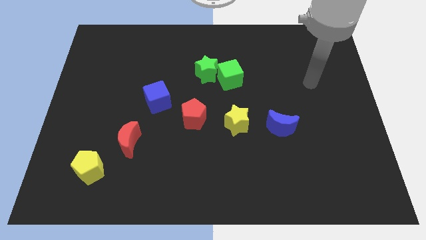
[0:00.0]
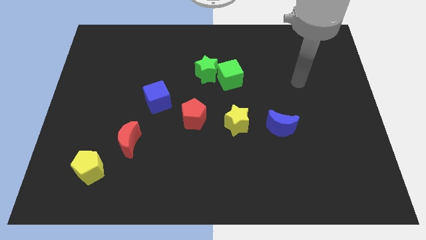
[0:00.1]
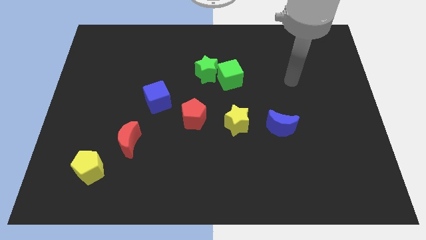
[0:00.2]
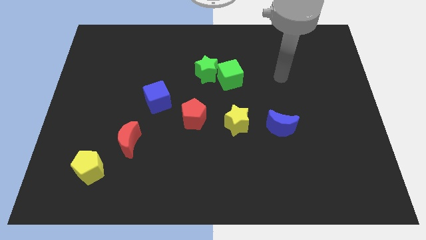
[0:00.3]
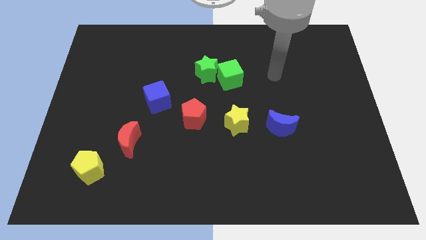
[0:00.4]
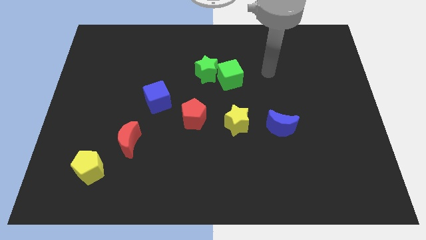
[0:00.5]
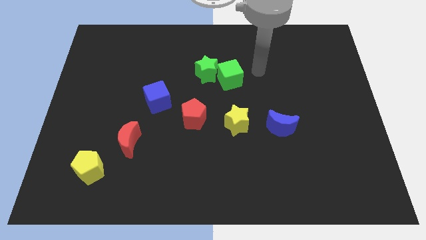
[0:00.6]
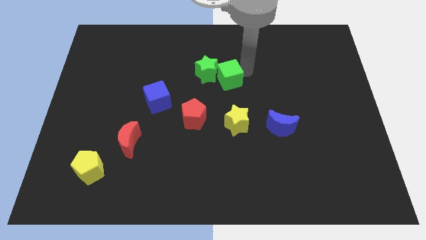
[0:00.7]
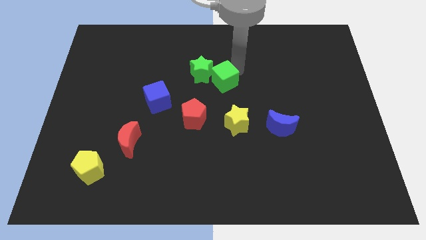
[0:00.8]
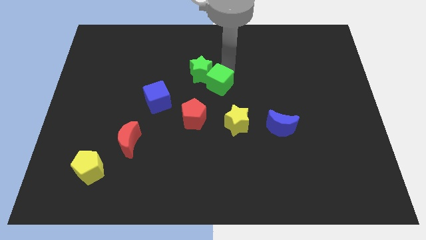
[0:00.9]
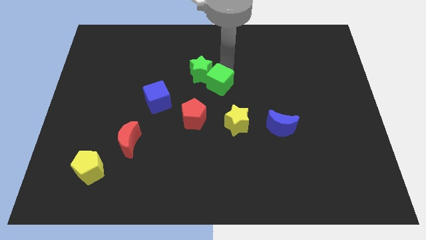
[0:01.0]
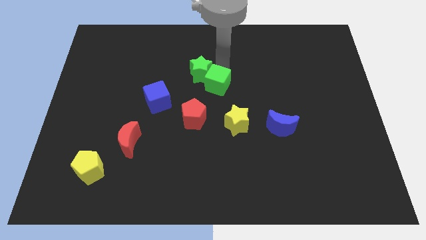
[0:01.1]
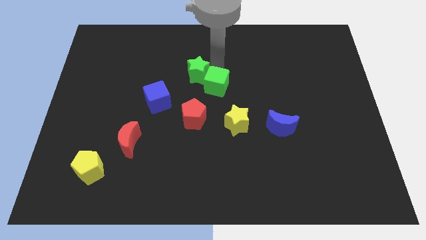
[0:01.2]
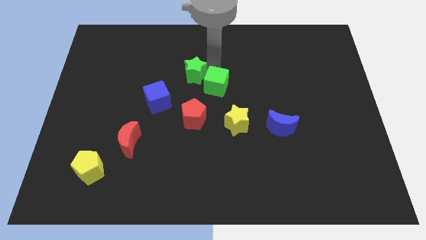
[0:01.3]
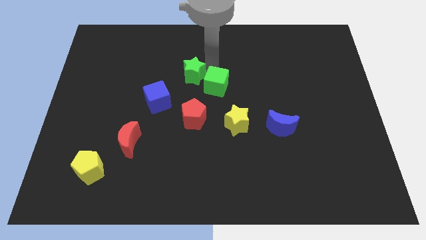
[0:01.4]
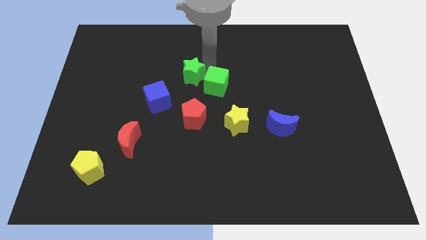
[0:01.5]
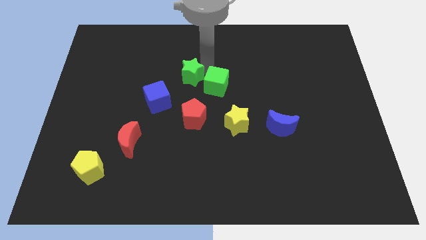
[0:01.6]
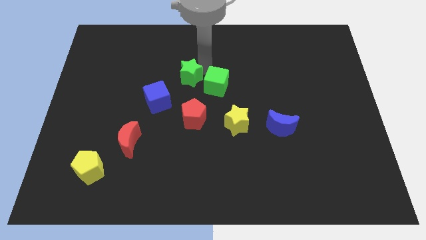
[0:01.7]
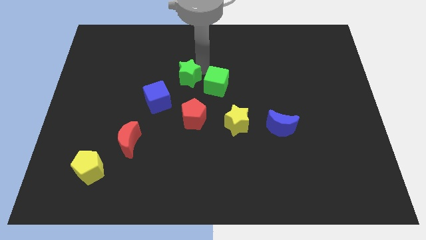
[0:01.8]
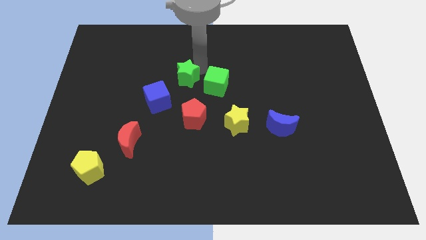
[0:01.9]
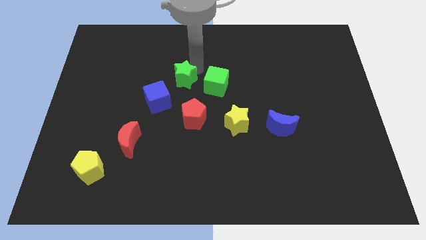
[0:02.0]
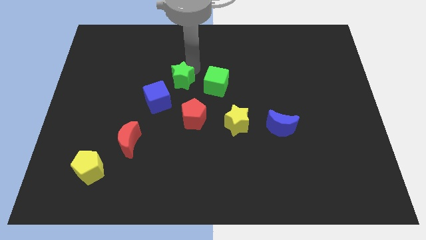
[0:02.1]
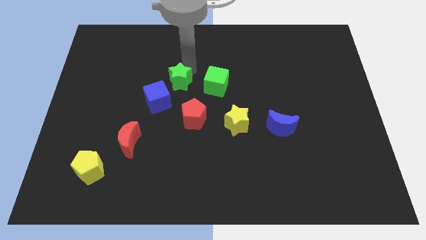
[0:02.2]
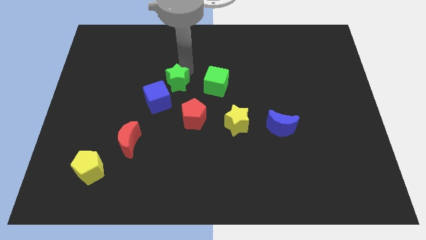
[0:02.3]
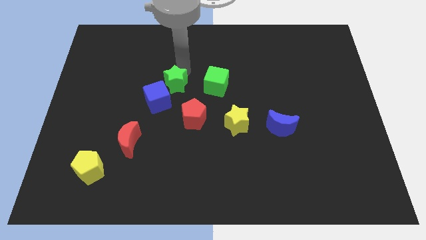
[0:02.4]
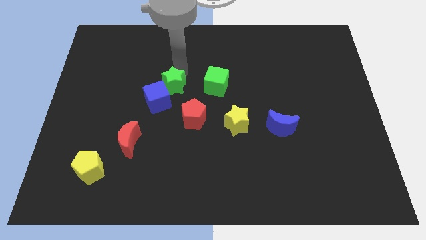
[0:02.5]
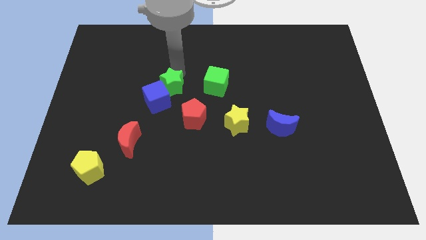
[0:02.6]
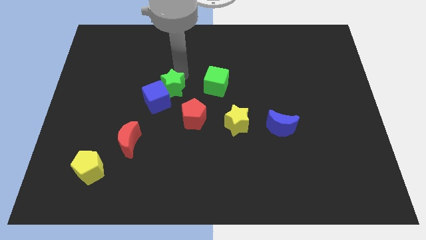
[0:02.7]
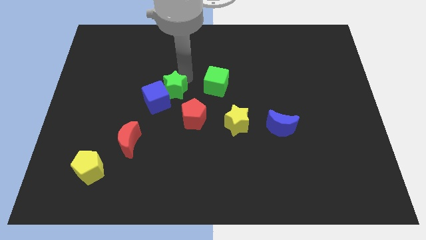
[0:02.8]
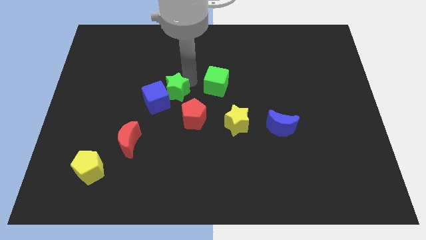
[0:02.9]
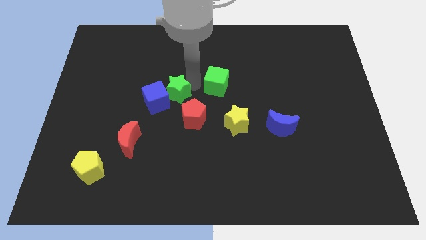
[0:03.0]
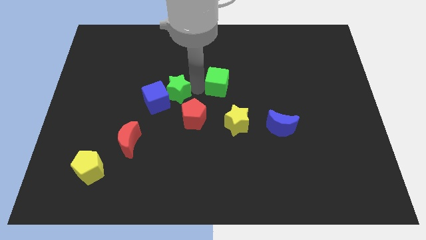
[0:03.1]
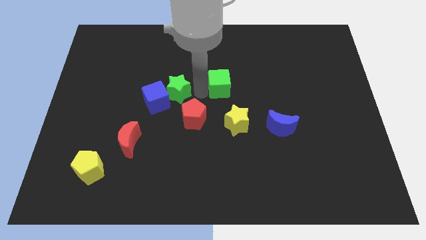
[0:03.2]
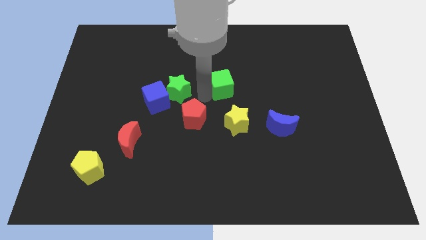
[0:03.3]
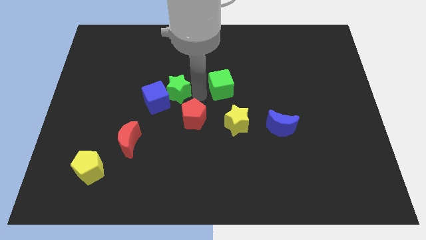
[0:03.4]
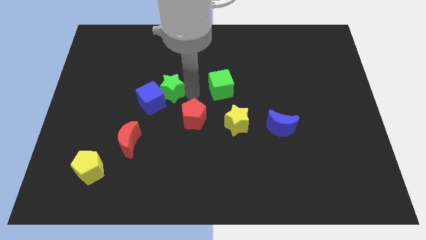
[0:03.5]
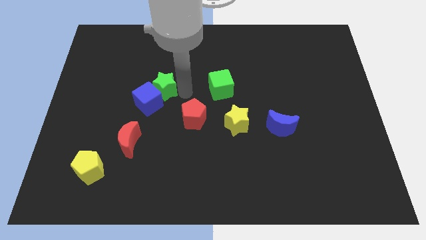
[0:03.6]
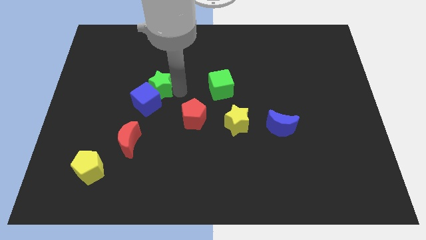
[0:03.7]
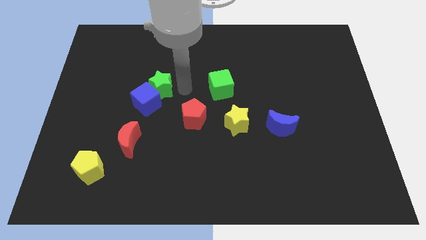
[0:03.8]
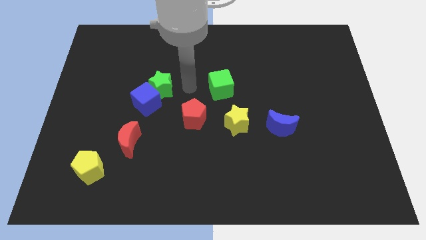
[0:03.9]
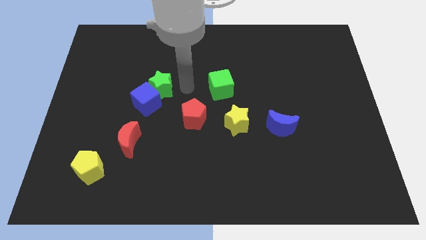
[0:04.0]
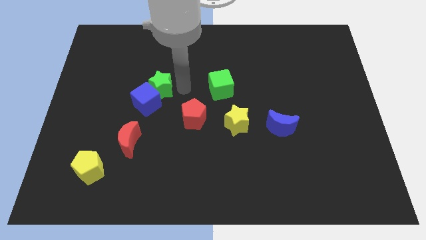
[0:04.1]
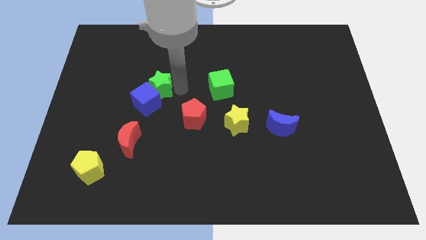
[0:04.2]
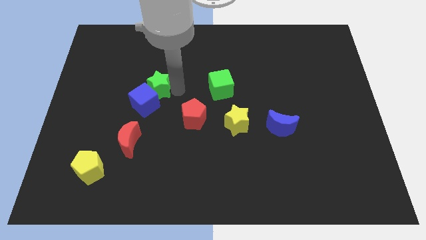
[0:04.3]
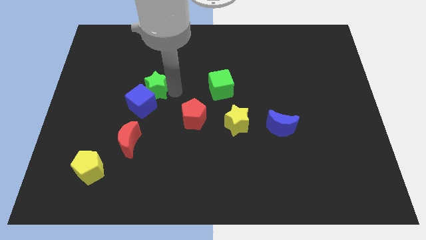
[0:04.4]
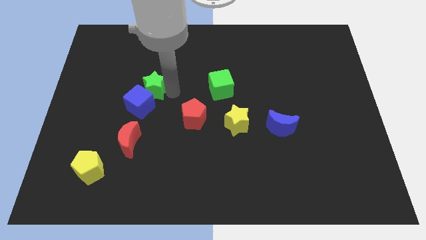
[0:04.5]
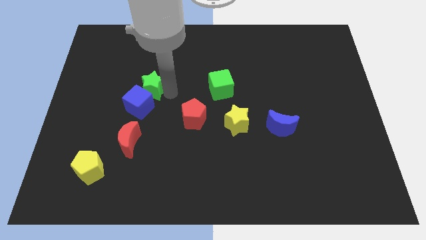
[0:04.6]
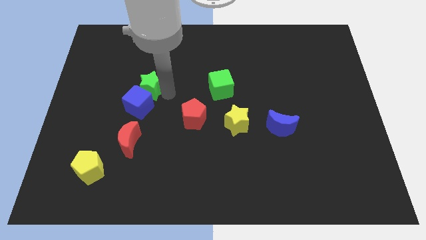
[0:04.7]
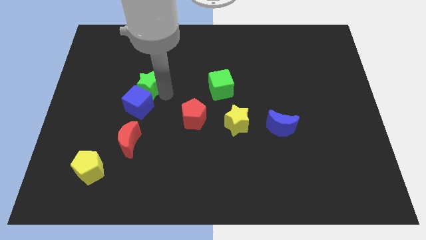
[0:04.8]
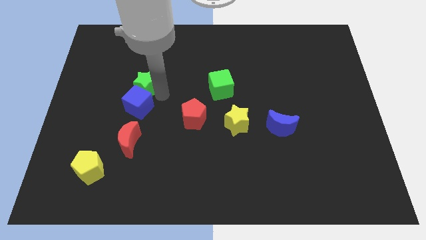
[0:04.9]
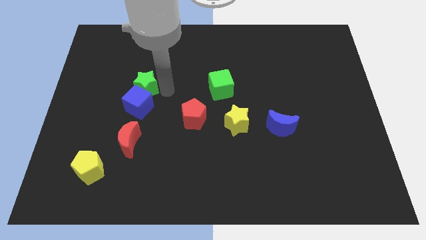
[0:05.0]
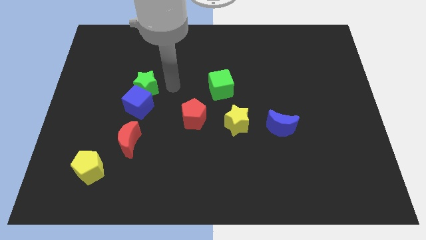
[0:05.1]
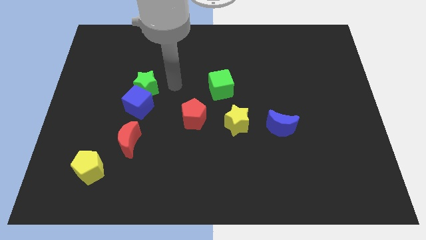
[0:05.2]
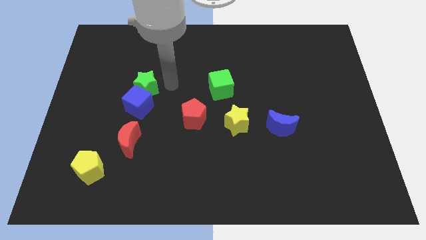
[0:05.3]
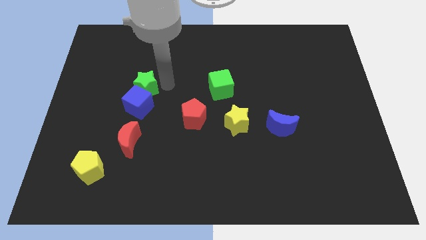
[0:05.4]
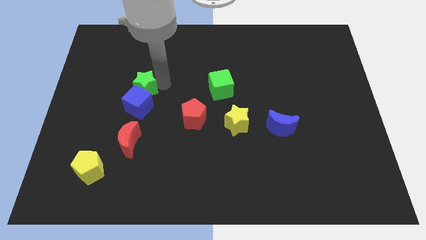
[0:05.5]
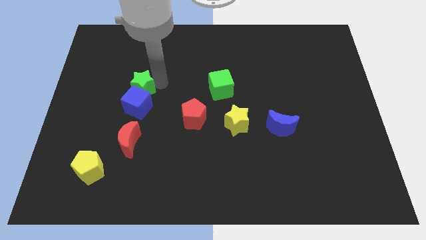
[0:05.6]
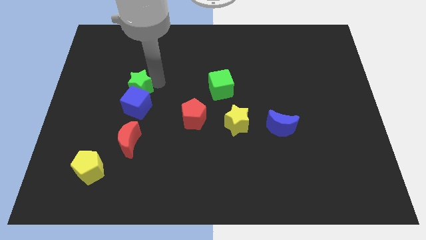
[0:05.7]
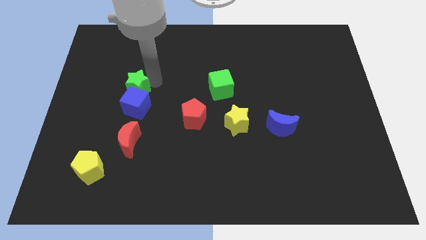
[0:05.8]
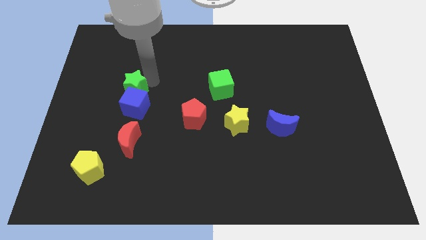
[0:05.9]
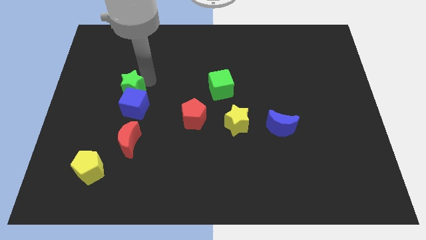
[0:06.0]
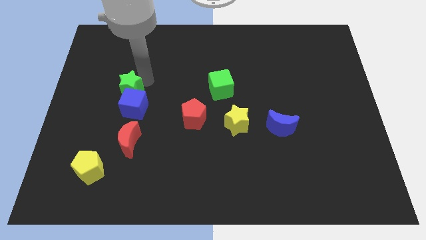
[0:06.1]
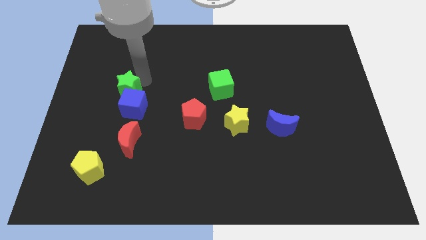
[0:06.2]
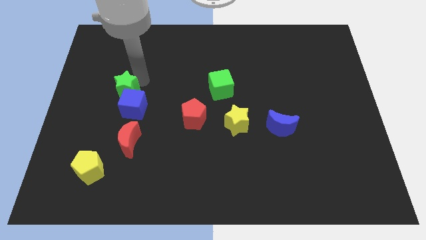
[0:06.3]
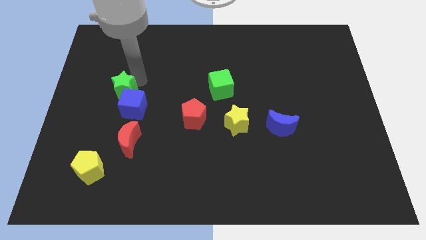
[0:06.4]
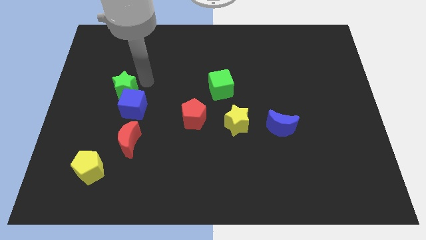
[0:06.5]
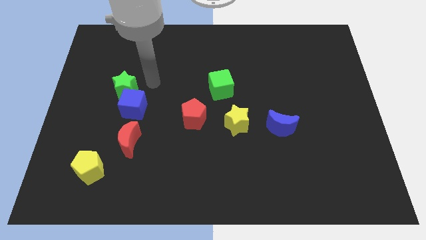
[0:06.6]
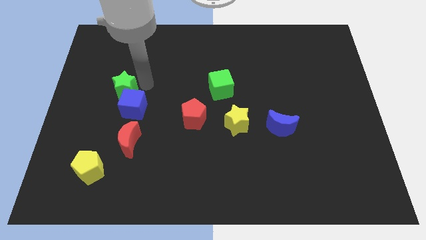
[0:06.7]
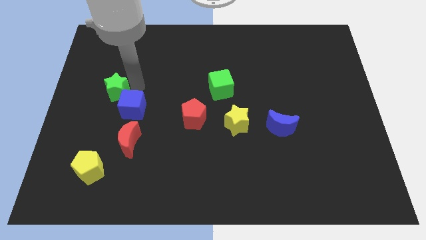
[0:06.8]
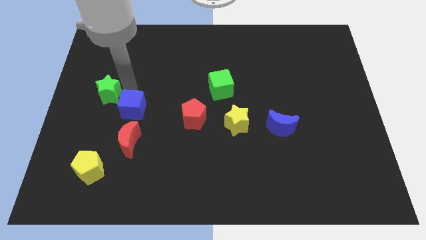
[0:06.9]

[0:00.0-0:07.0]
move the green star to the left side
